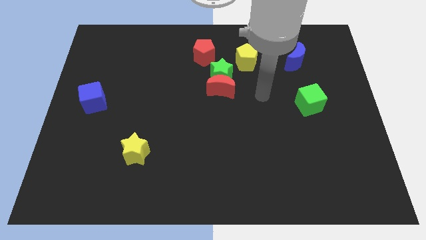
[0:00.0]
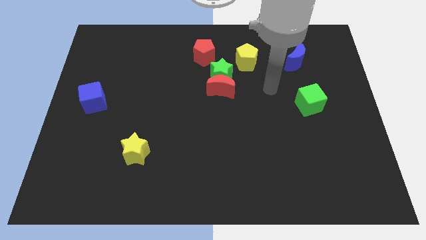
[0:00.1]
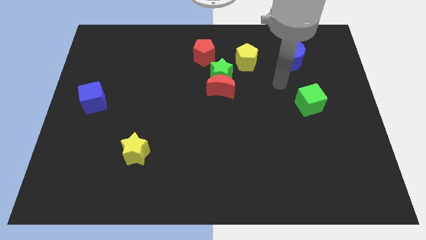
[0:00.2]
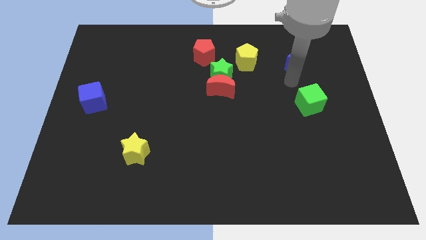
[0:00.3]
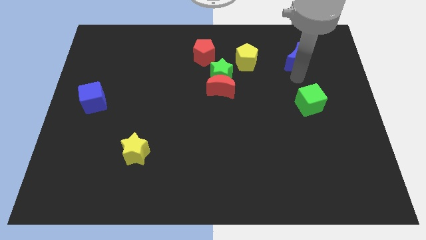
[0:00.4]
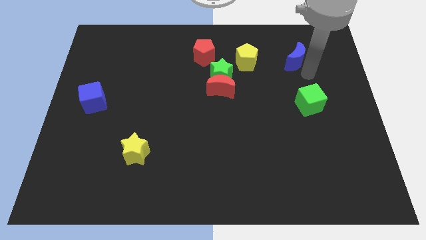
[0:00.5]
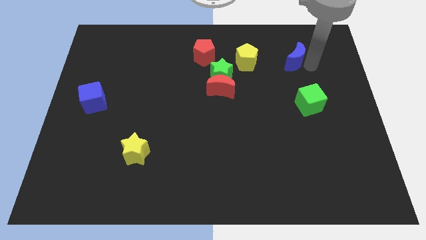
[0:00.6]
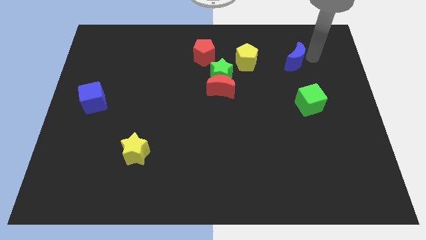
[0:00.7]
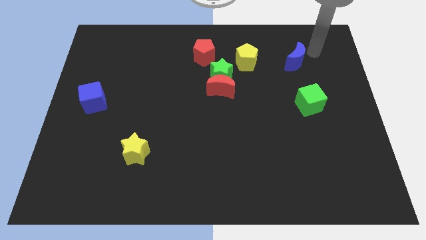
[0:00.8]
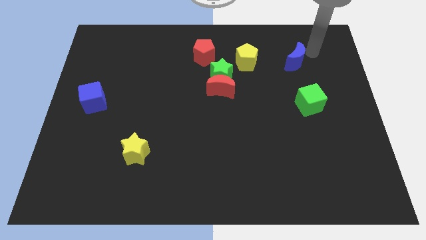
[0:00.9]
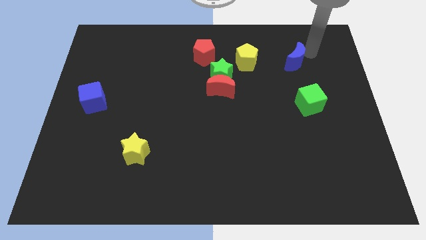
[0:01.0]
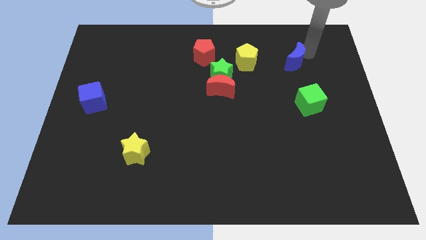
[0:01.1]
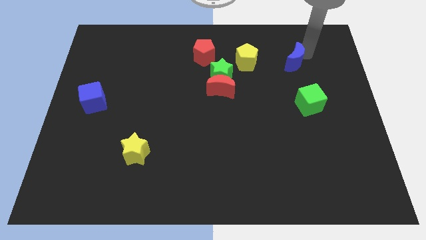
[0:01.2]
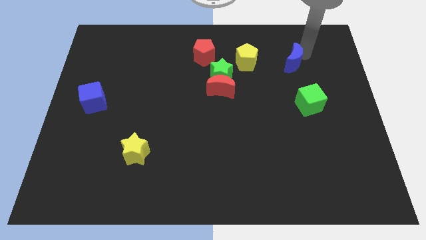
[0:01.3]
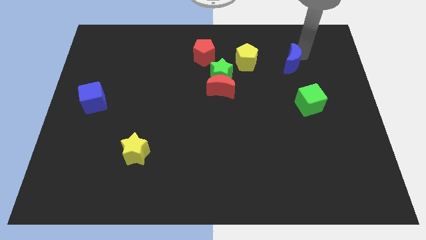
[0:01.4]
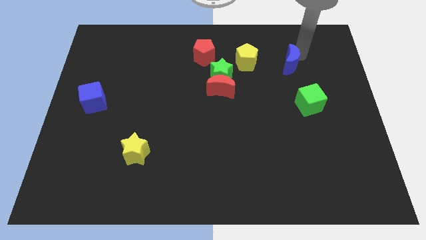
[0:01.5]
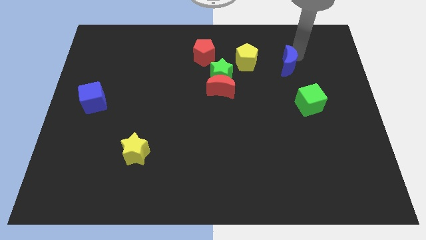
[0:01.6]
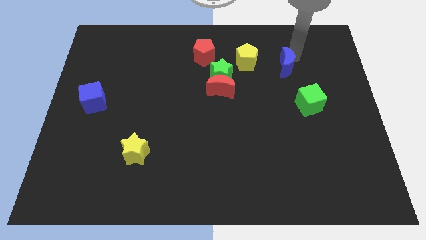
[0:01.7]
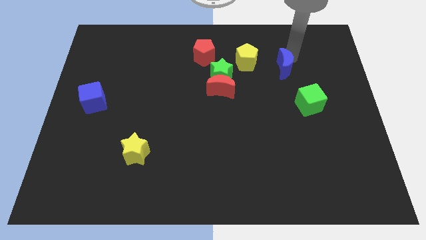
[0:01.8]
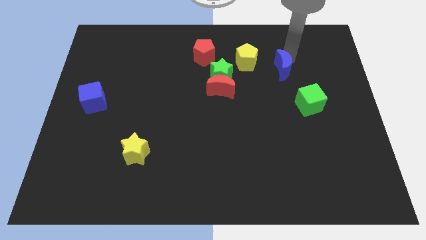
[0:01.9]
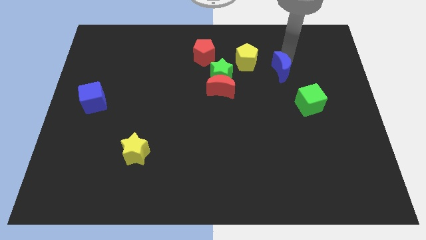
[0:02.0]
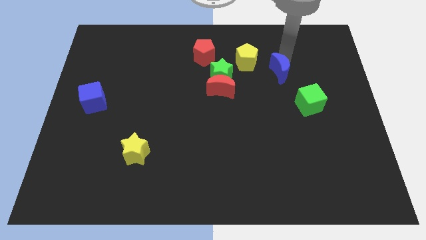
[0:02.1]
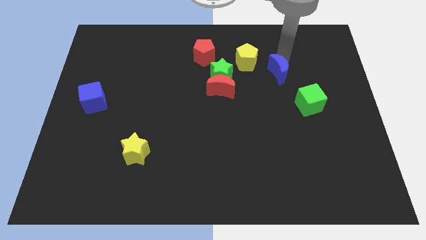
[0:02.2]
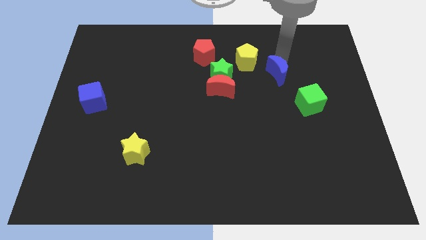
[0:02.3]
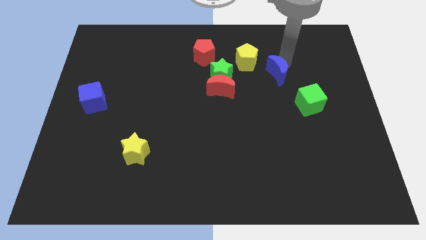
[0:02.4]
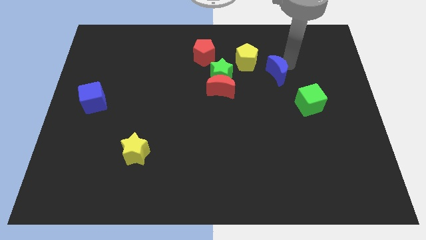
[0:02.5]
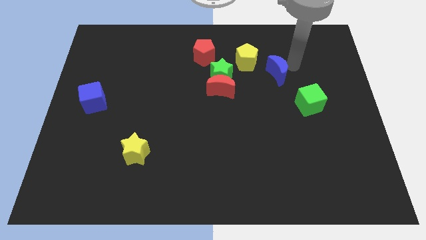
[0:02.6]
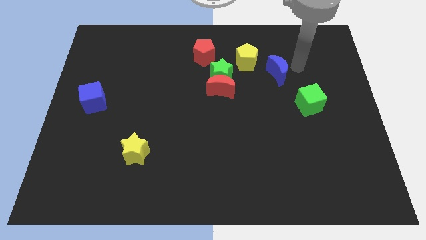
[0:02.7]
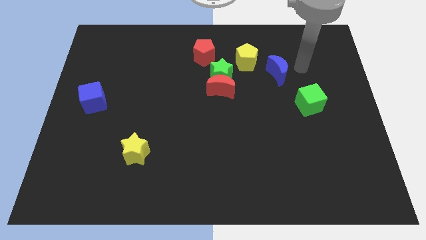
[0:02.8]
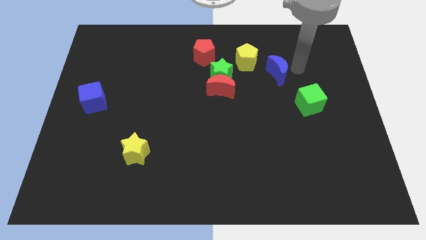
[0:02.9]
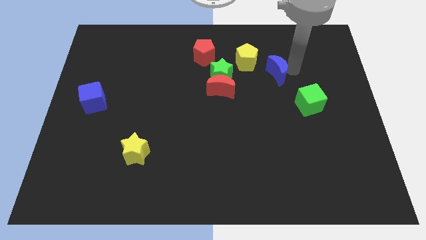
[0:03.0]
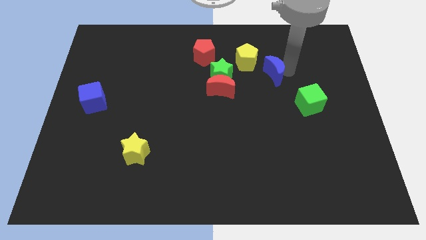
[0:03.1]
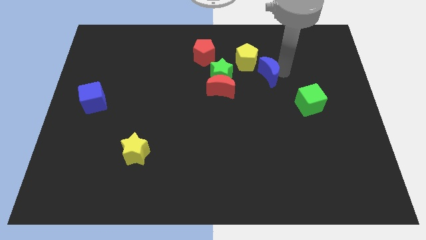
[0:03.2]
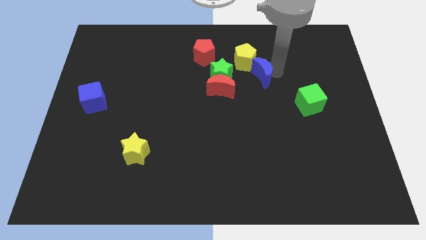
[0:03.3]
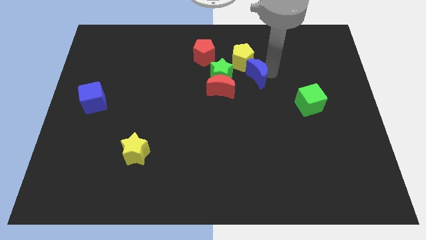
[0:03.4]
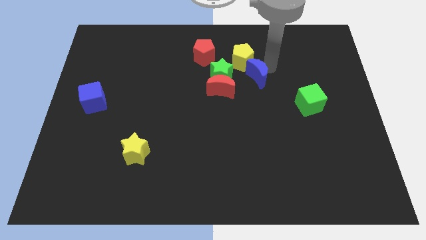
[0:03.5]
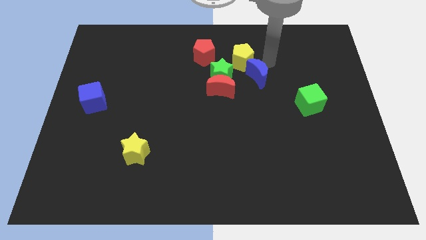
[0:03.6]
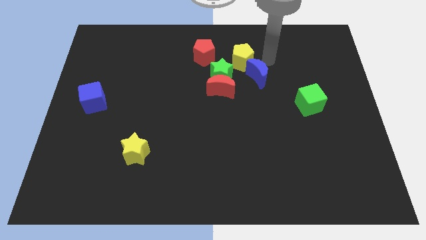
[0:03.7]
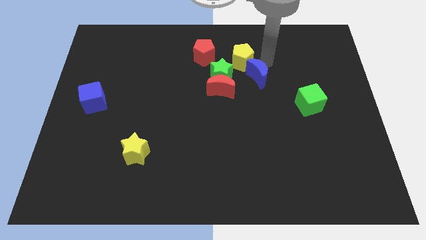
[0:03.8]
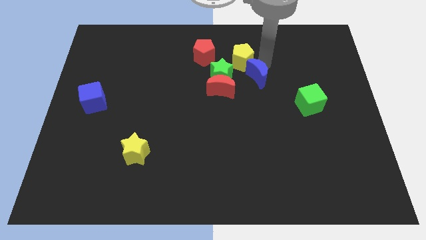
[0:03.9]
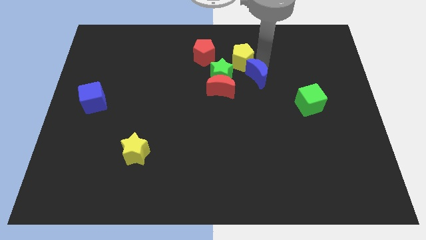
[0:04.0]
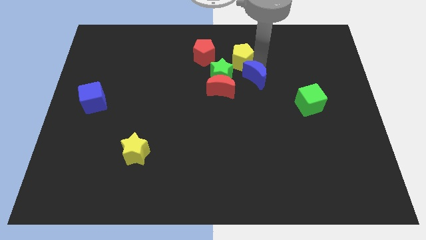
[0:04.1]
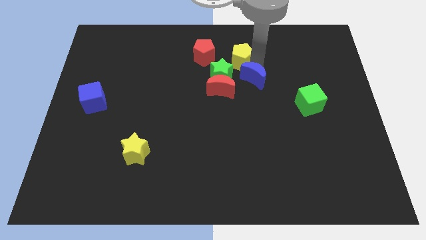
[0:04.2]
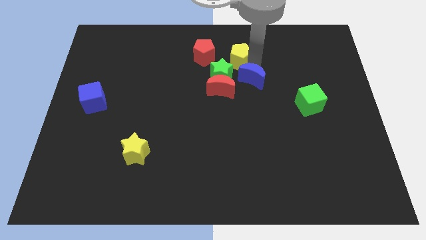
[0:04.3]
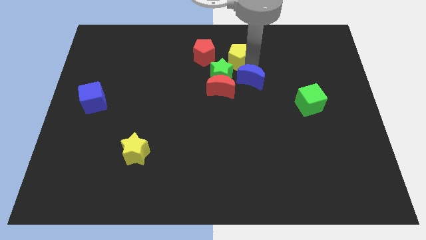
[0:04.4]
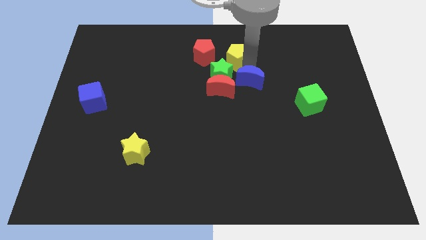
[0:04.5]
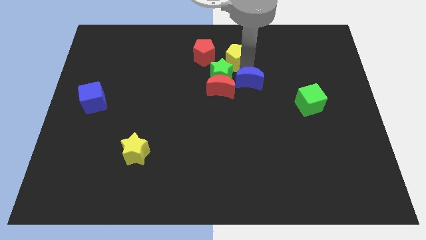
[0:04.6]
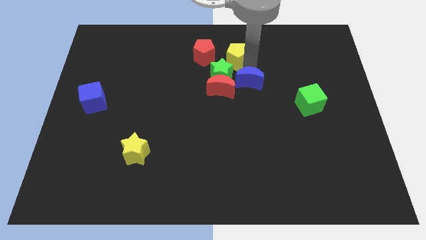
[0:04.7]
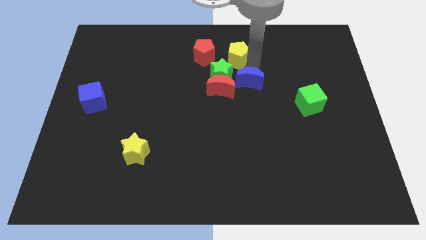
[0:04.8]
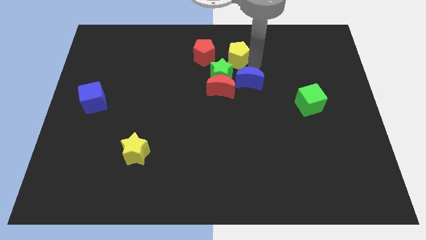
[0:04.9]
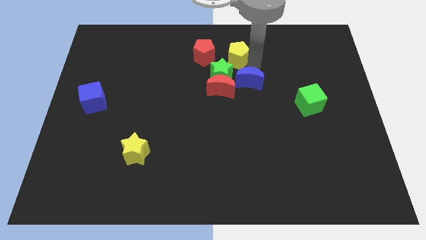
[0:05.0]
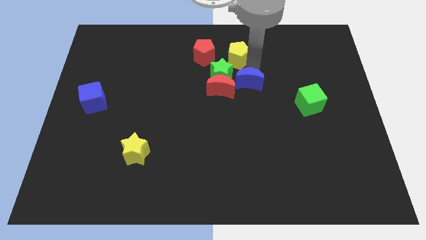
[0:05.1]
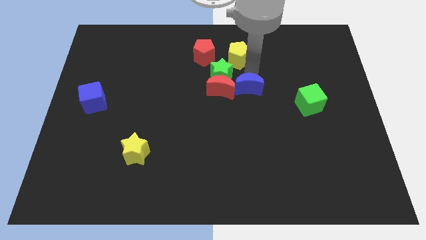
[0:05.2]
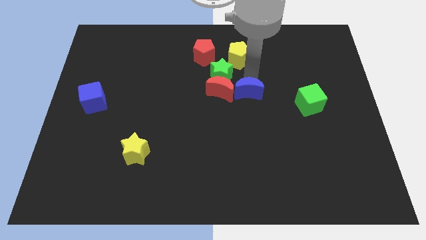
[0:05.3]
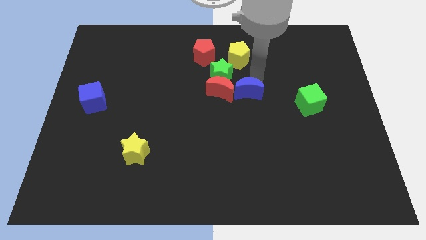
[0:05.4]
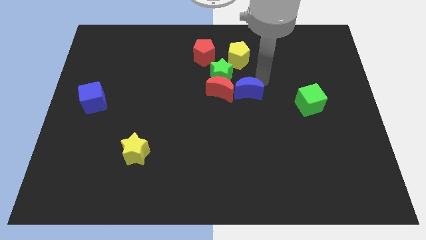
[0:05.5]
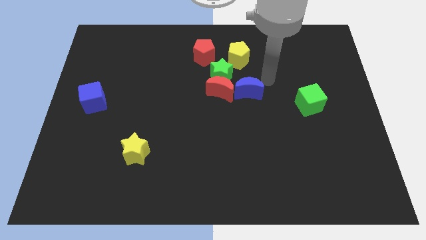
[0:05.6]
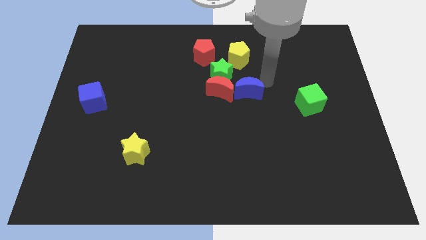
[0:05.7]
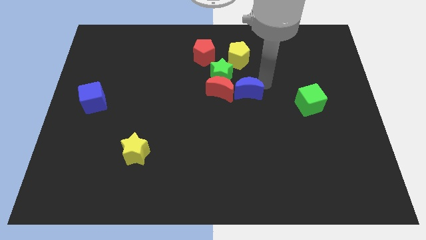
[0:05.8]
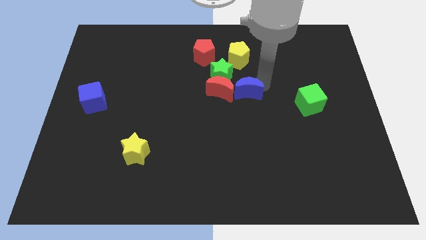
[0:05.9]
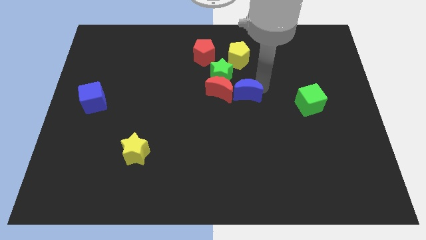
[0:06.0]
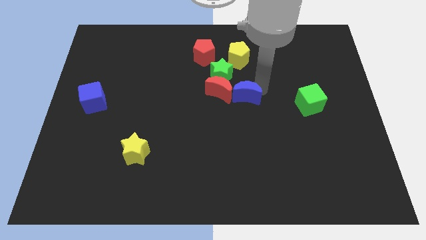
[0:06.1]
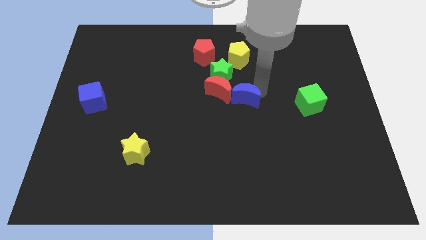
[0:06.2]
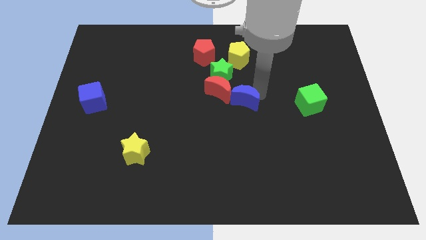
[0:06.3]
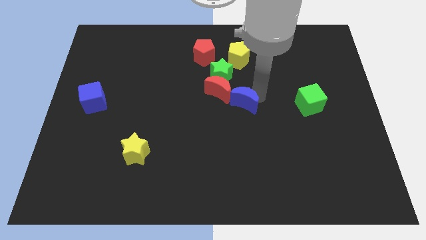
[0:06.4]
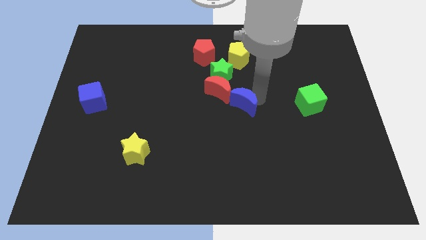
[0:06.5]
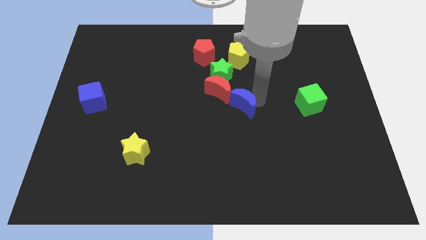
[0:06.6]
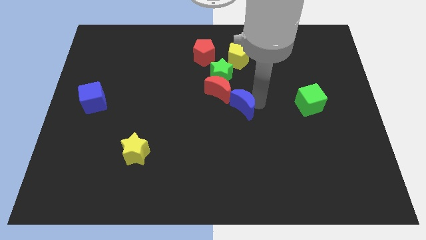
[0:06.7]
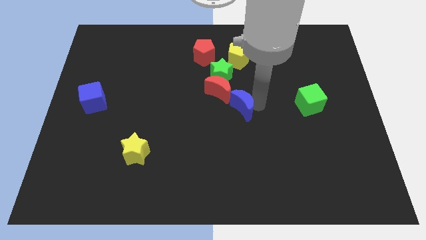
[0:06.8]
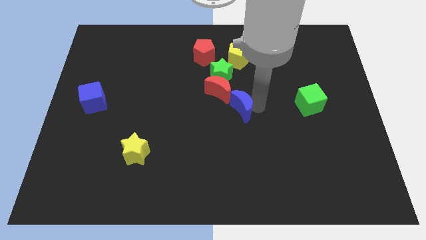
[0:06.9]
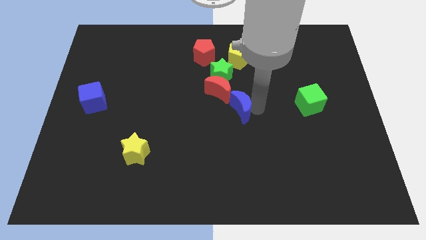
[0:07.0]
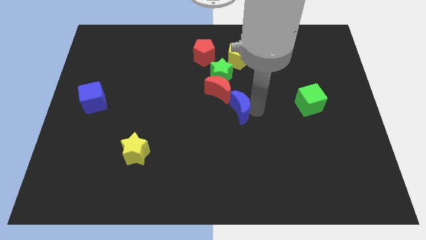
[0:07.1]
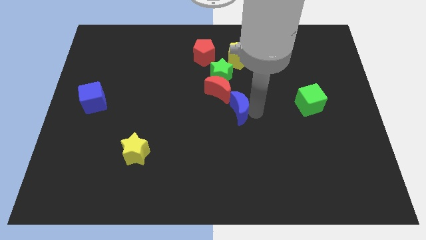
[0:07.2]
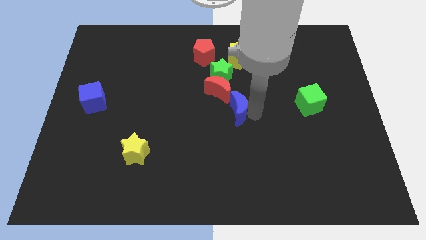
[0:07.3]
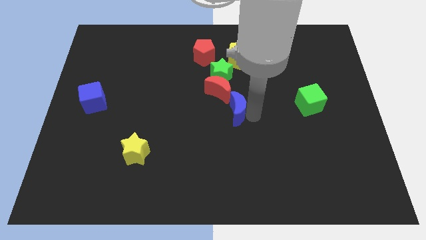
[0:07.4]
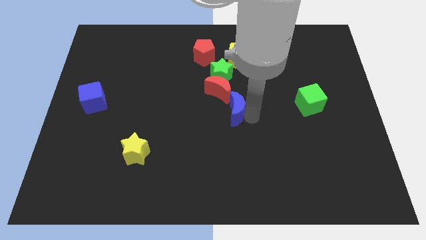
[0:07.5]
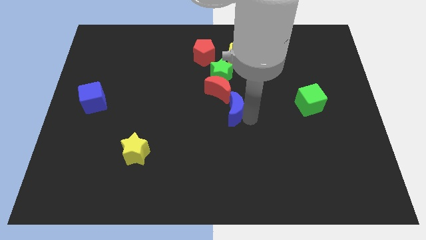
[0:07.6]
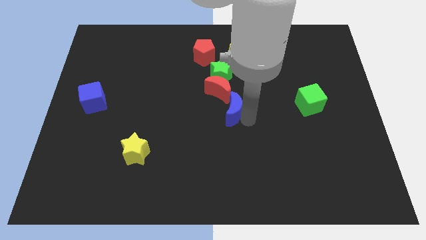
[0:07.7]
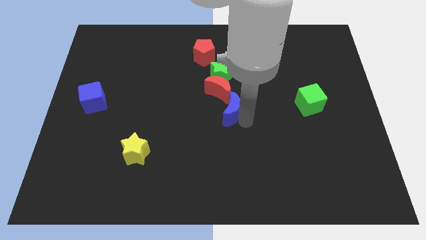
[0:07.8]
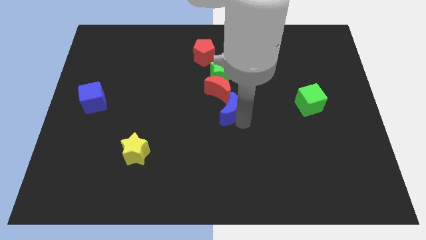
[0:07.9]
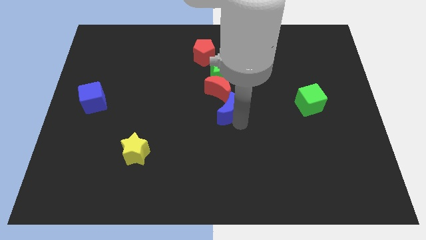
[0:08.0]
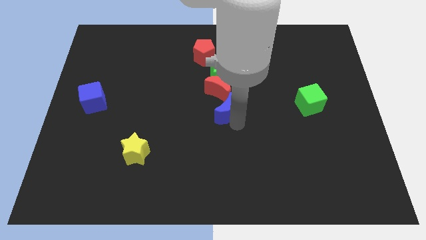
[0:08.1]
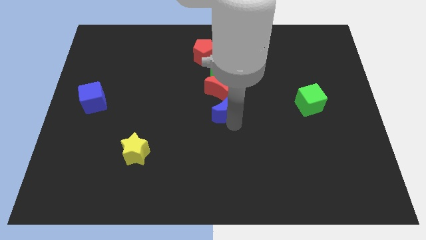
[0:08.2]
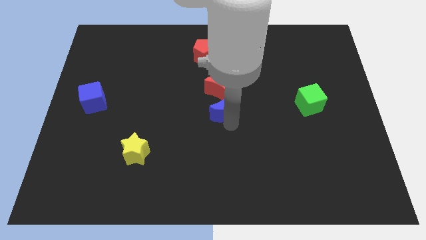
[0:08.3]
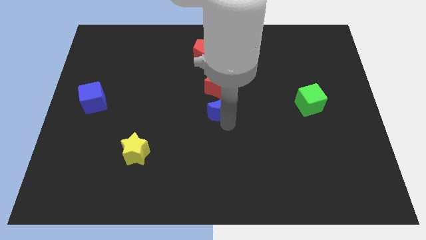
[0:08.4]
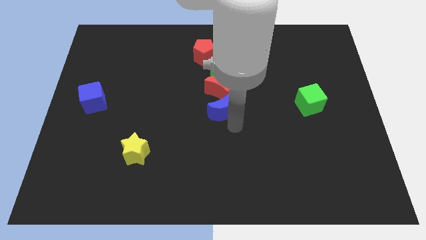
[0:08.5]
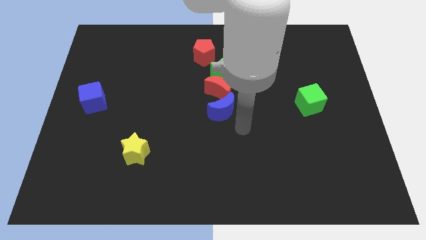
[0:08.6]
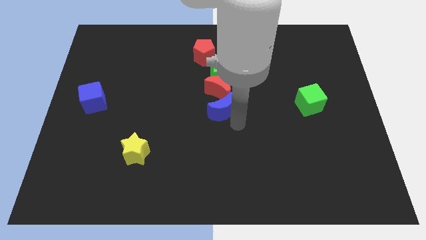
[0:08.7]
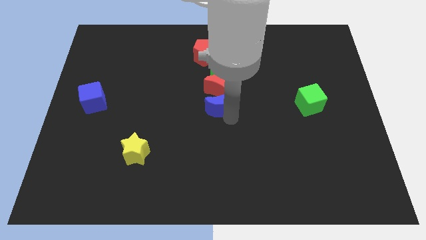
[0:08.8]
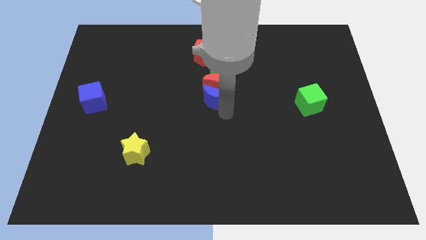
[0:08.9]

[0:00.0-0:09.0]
move the blue moon diagonally down and to the left of the green star
